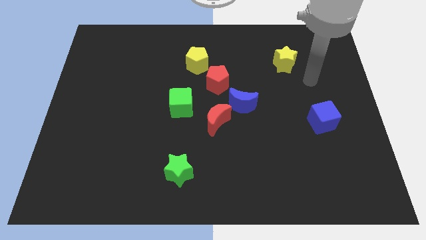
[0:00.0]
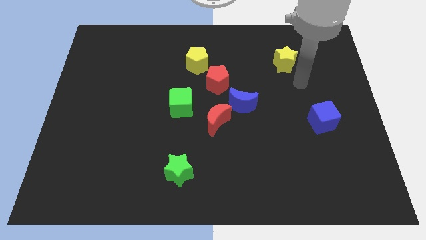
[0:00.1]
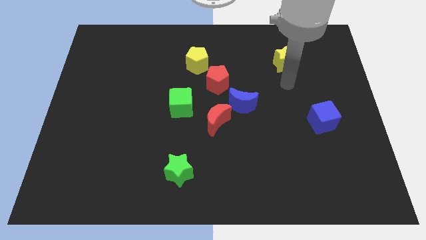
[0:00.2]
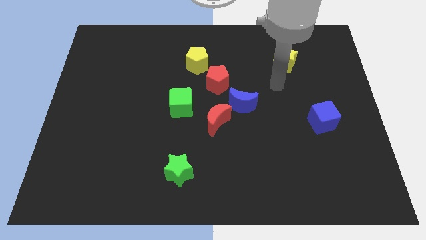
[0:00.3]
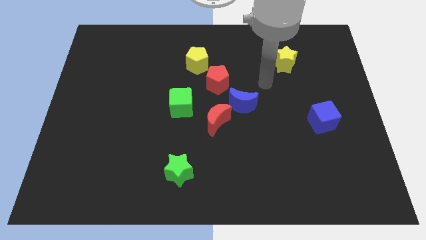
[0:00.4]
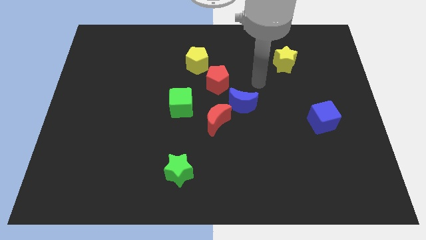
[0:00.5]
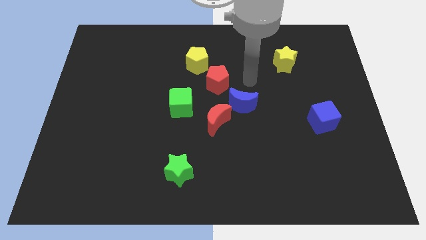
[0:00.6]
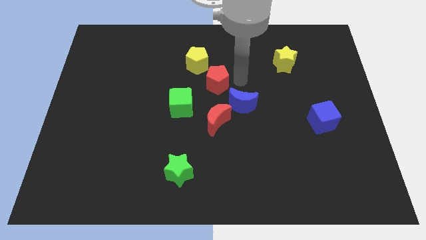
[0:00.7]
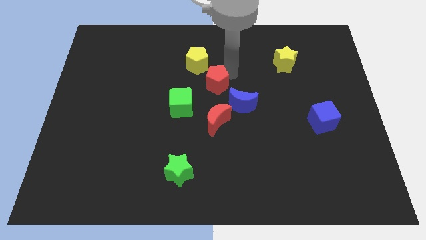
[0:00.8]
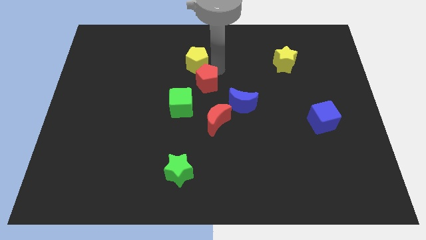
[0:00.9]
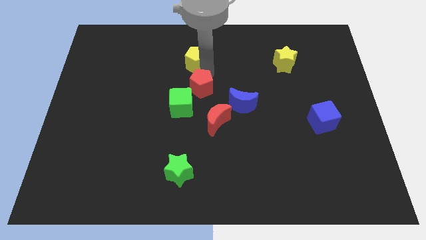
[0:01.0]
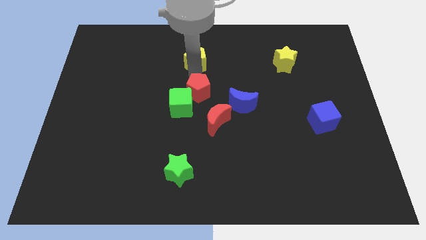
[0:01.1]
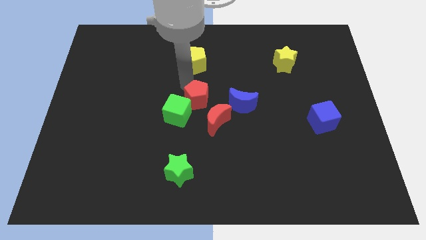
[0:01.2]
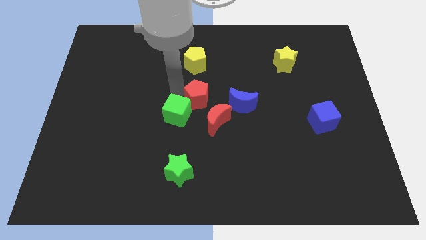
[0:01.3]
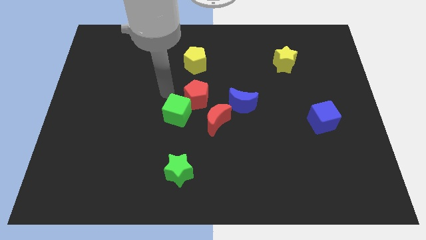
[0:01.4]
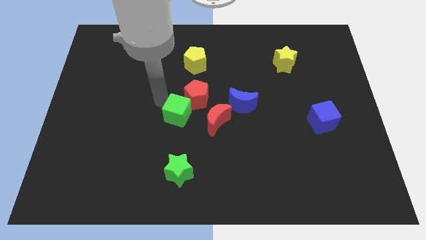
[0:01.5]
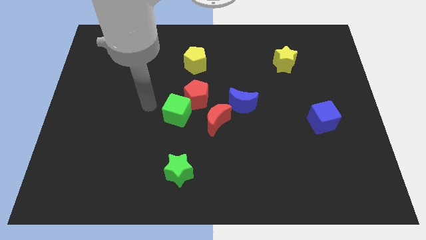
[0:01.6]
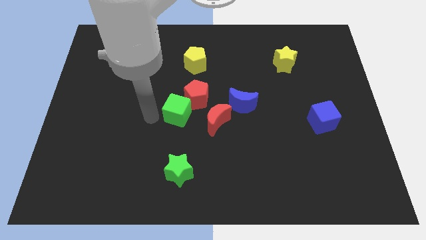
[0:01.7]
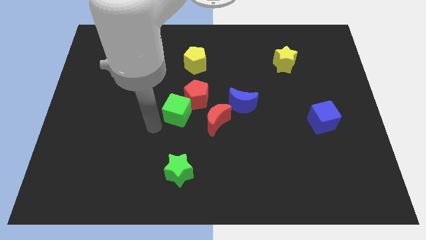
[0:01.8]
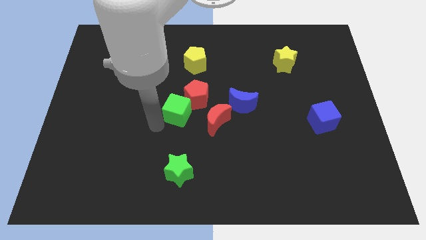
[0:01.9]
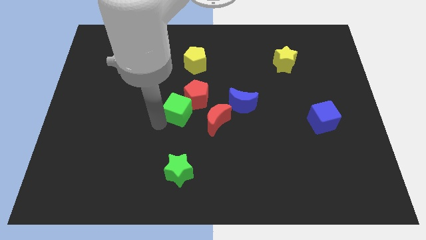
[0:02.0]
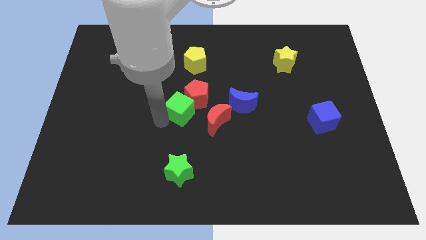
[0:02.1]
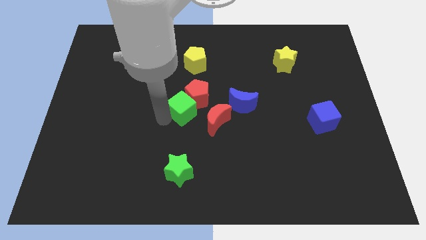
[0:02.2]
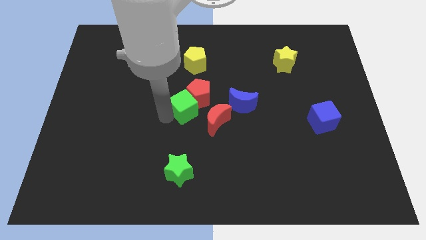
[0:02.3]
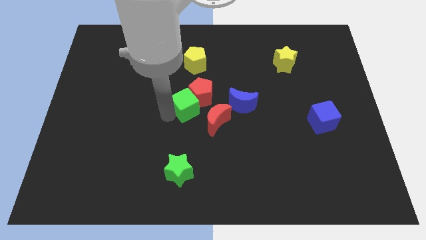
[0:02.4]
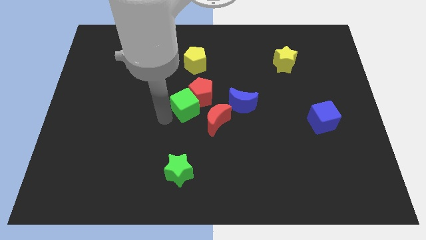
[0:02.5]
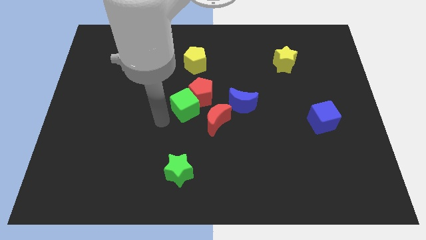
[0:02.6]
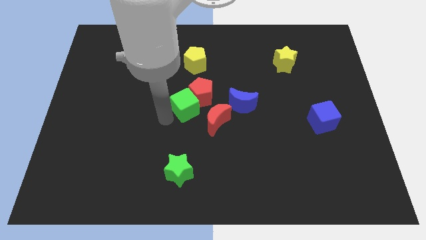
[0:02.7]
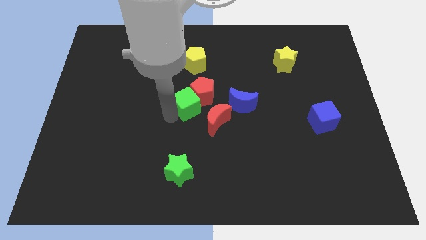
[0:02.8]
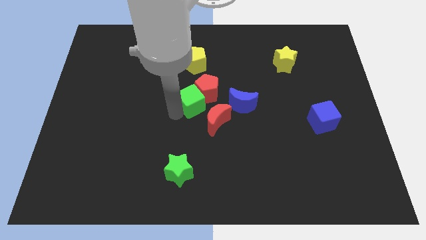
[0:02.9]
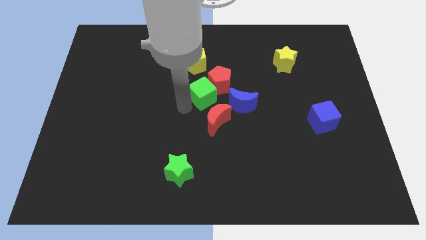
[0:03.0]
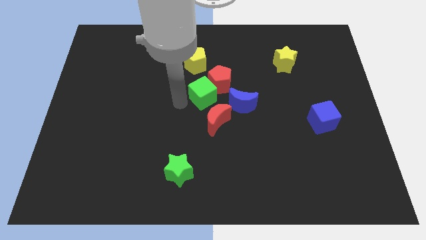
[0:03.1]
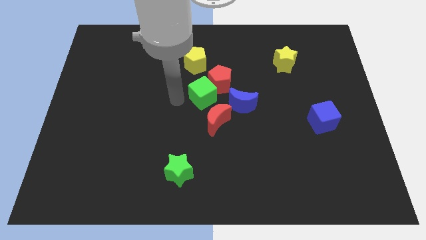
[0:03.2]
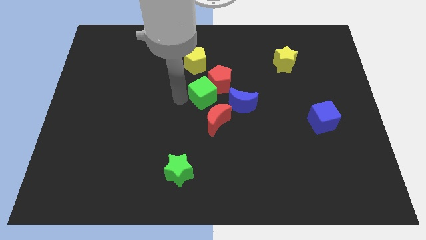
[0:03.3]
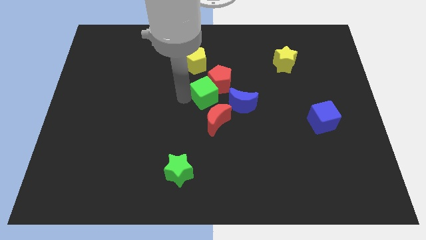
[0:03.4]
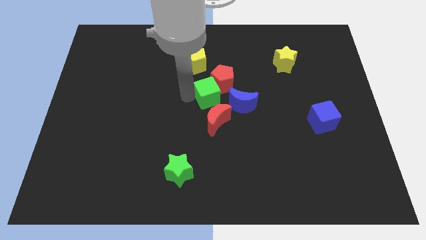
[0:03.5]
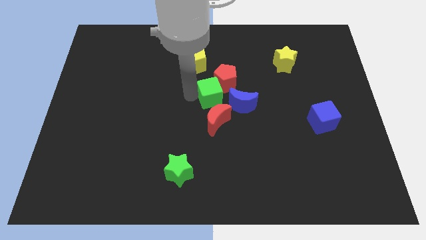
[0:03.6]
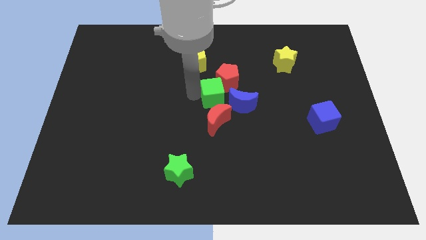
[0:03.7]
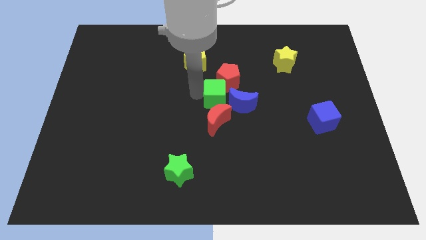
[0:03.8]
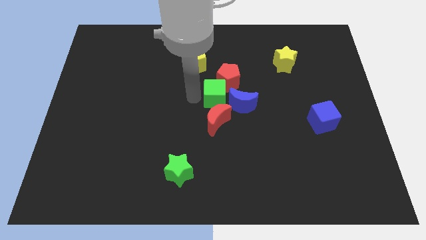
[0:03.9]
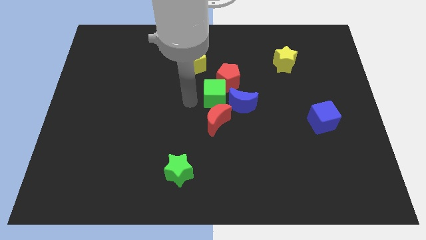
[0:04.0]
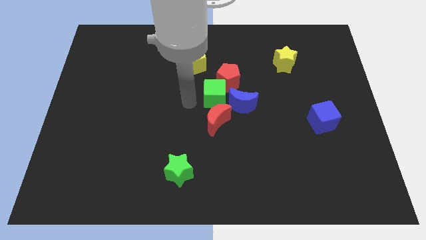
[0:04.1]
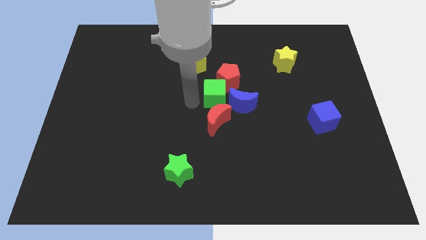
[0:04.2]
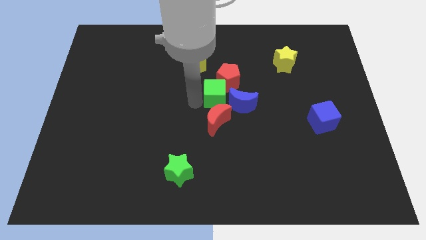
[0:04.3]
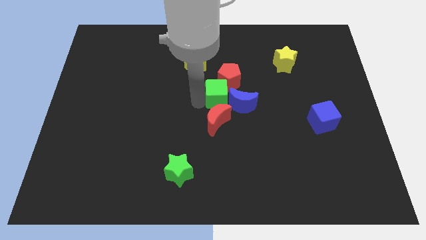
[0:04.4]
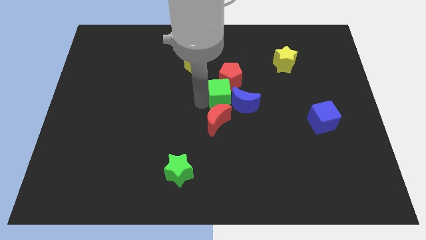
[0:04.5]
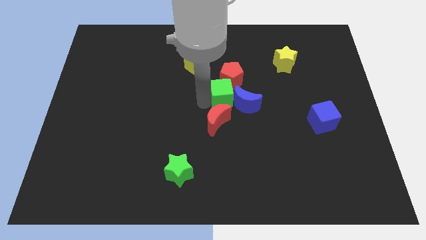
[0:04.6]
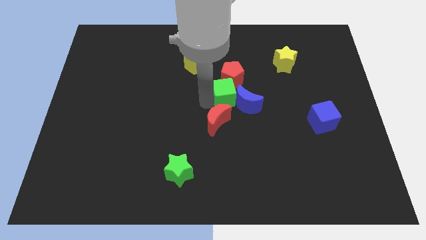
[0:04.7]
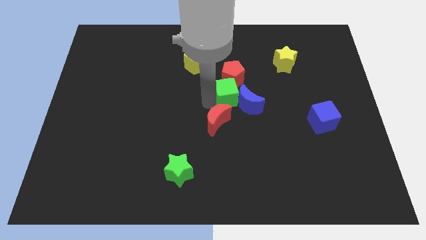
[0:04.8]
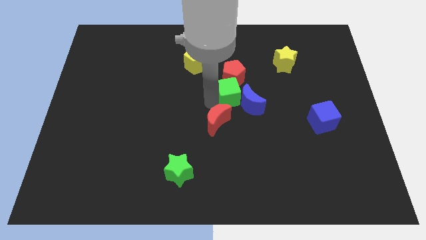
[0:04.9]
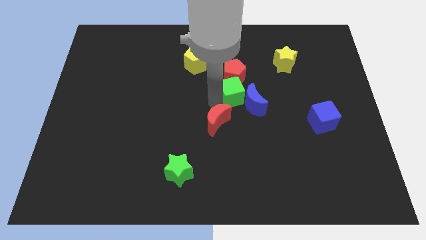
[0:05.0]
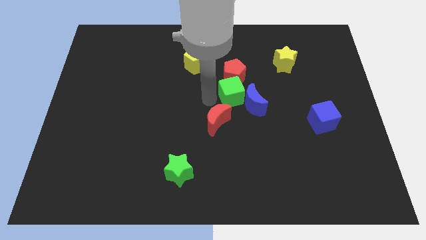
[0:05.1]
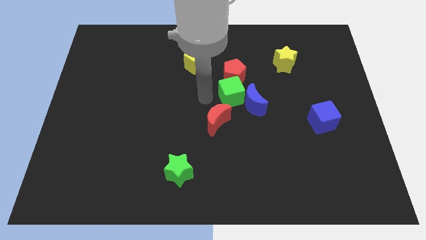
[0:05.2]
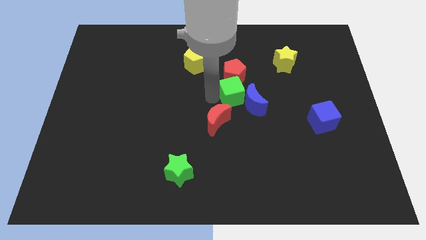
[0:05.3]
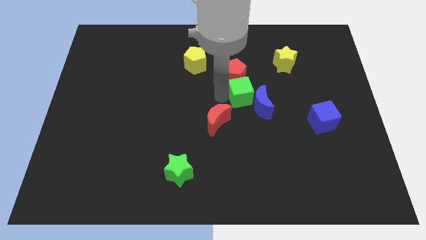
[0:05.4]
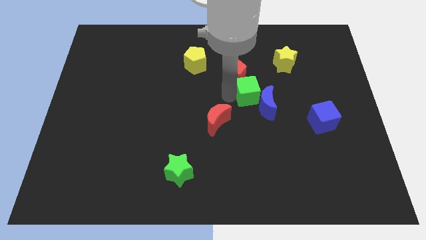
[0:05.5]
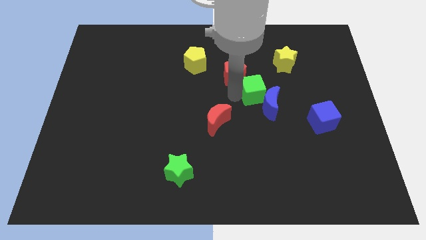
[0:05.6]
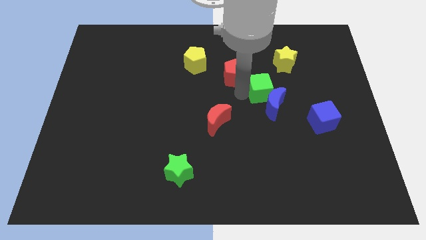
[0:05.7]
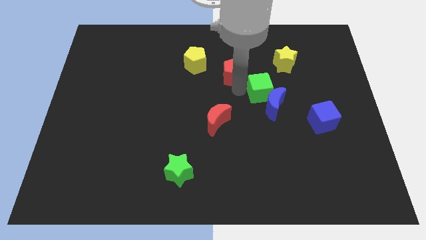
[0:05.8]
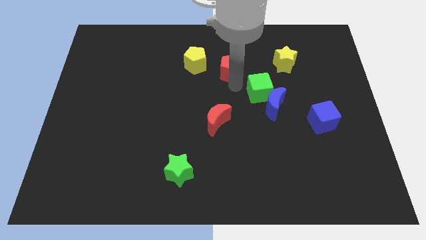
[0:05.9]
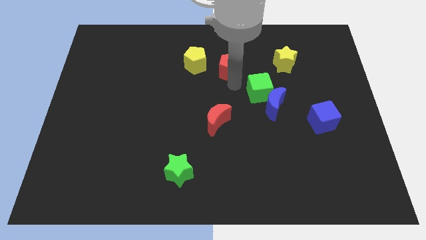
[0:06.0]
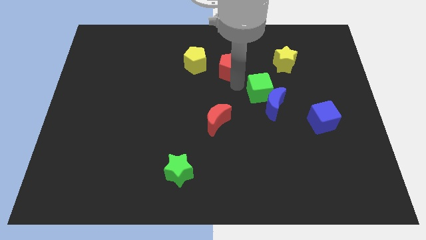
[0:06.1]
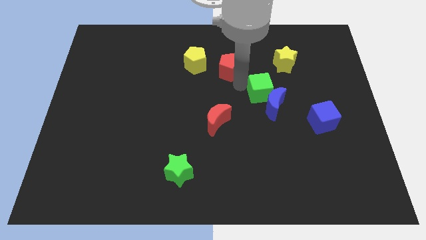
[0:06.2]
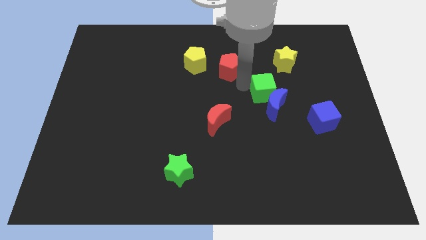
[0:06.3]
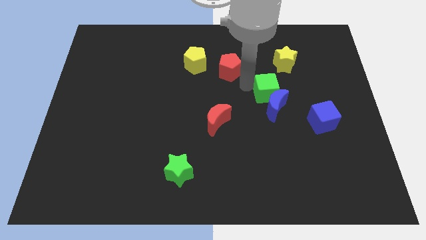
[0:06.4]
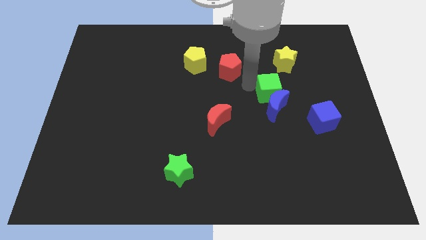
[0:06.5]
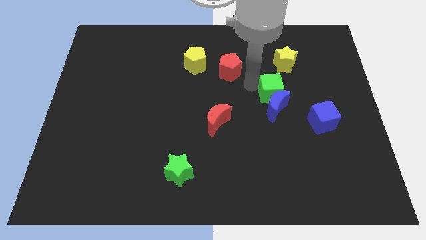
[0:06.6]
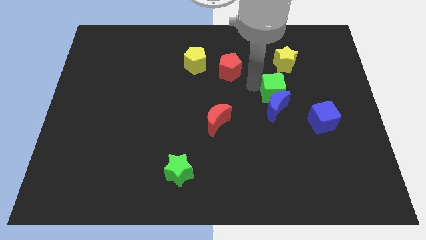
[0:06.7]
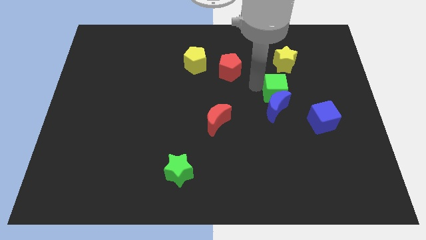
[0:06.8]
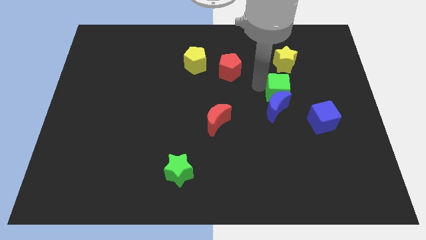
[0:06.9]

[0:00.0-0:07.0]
put the green cube to the top left side of the blue cube

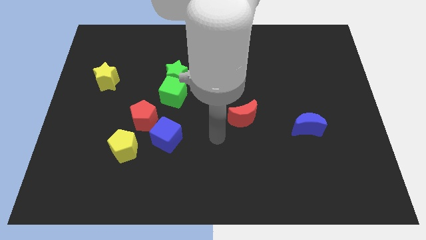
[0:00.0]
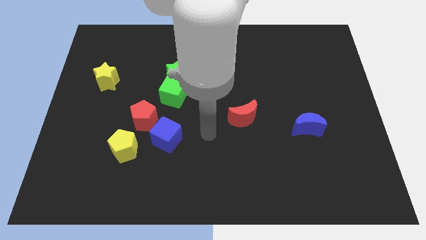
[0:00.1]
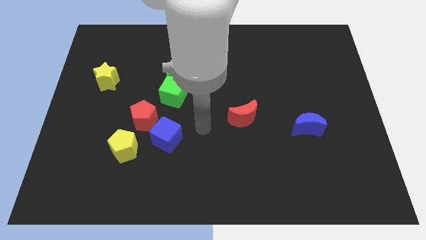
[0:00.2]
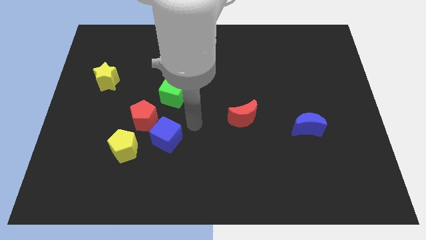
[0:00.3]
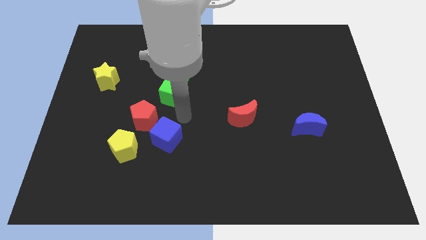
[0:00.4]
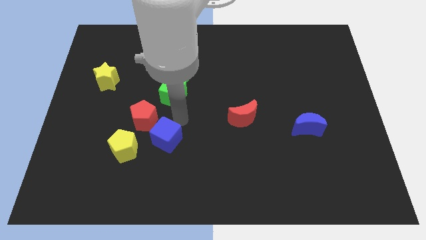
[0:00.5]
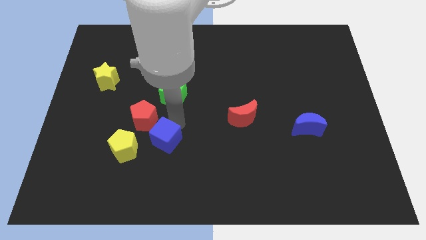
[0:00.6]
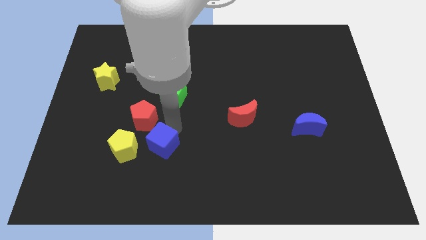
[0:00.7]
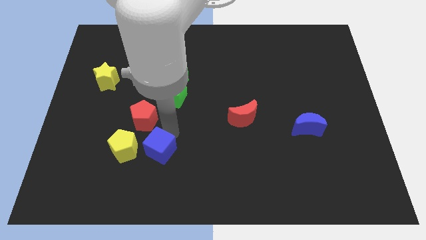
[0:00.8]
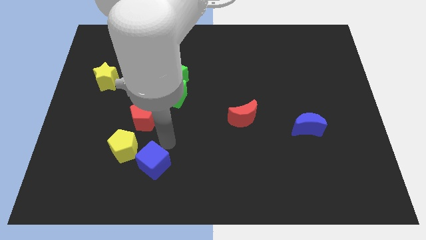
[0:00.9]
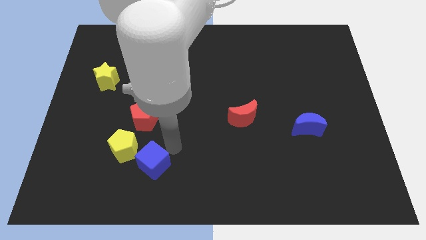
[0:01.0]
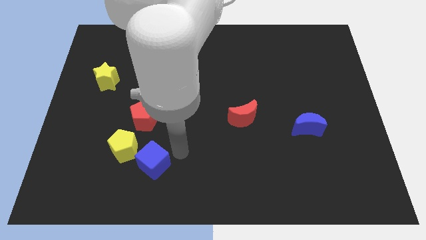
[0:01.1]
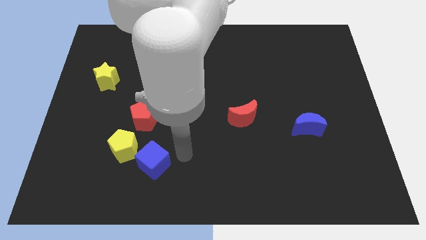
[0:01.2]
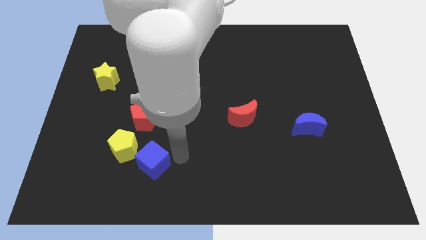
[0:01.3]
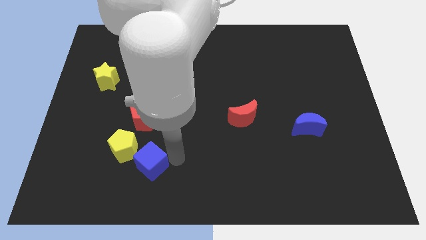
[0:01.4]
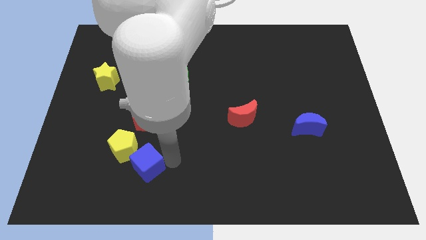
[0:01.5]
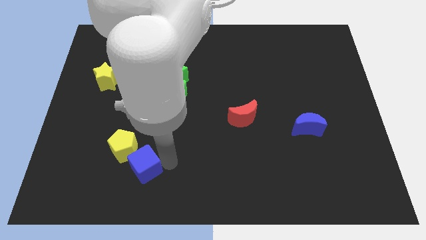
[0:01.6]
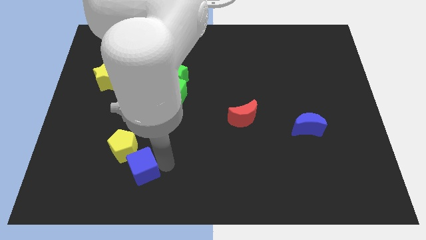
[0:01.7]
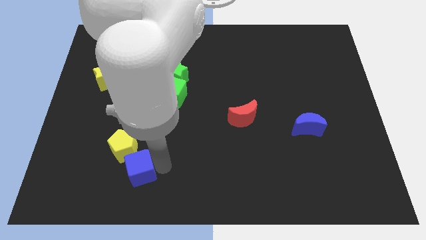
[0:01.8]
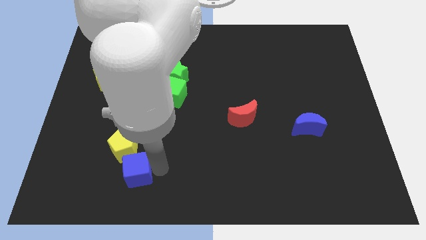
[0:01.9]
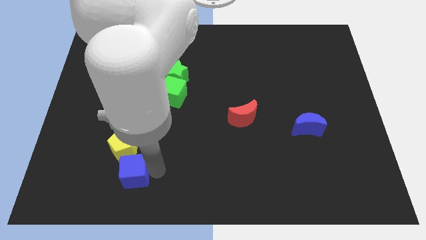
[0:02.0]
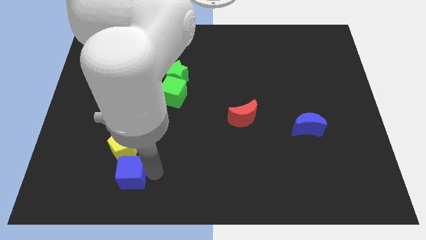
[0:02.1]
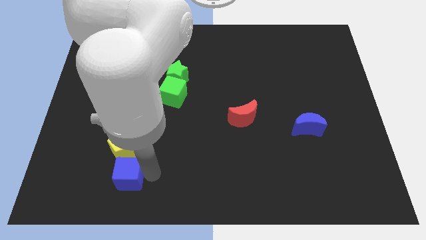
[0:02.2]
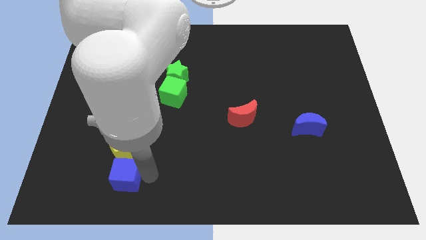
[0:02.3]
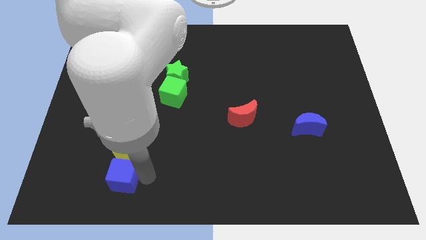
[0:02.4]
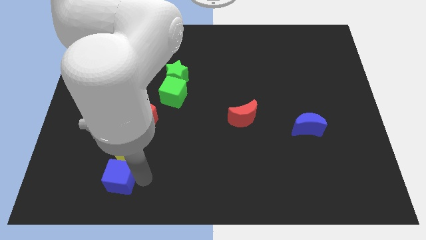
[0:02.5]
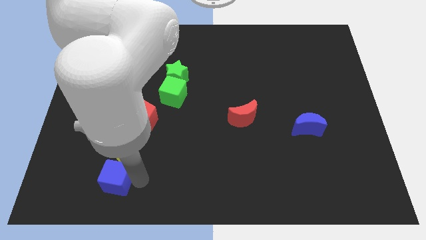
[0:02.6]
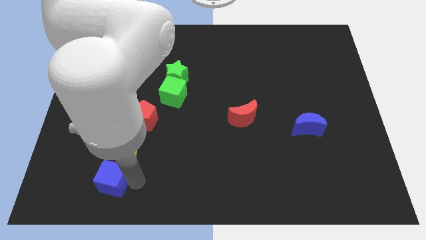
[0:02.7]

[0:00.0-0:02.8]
push the blue cube diagonally down and to the left of the yellow pentagon
